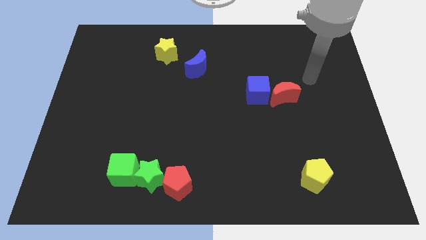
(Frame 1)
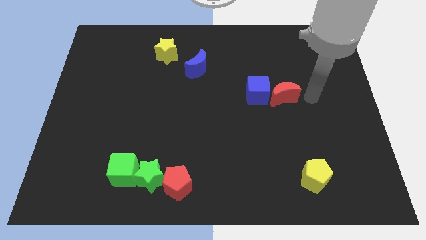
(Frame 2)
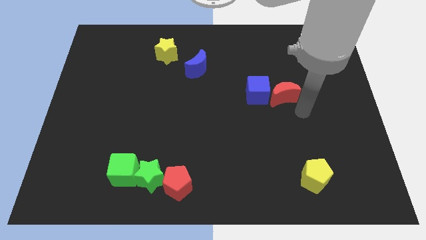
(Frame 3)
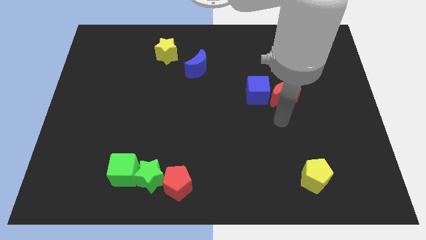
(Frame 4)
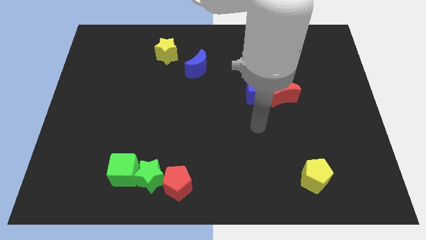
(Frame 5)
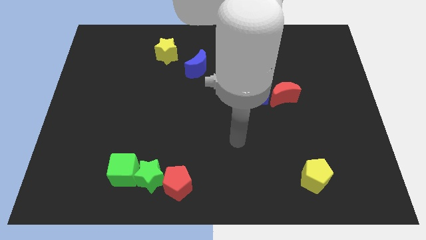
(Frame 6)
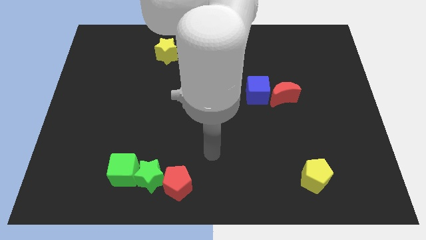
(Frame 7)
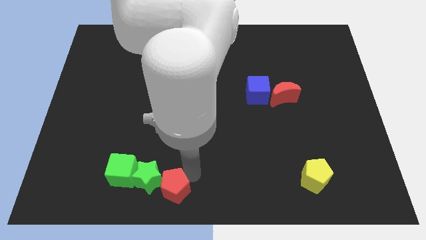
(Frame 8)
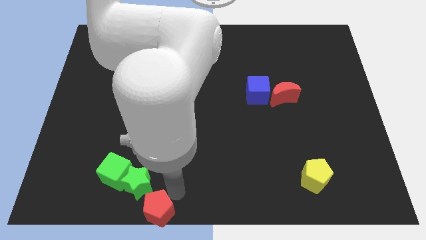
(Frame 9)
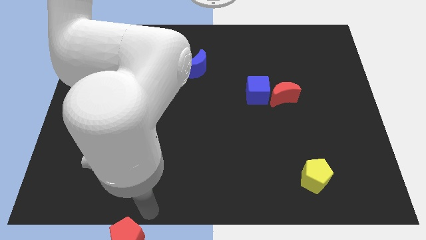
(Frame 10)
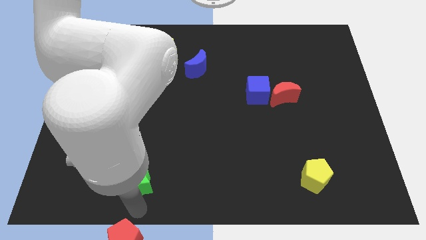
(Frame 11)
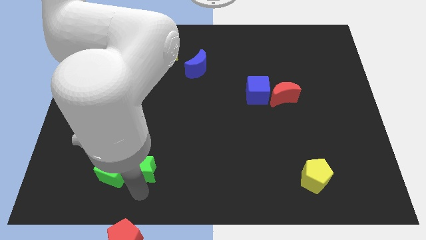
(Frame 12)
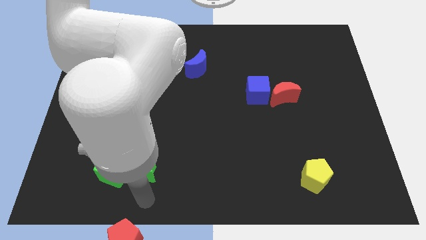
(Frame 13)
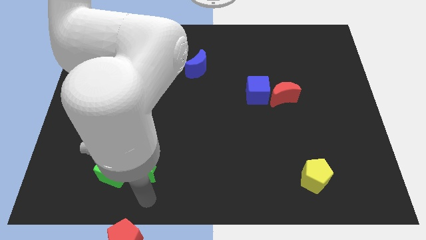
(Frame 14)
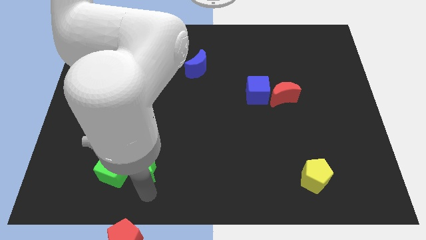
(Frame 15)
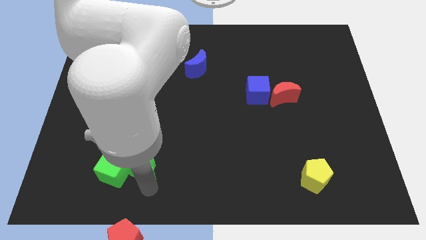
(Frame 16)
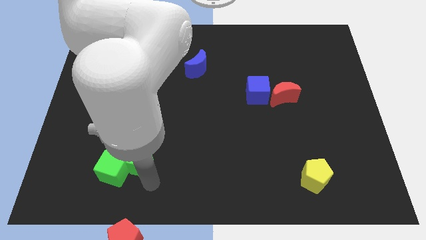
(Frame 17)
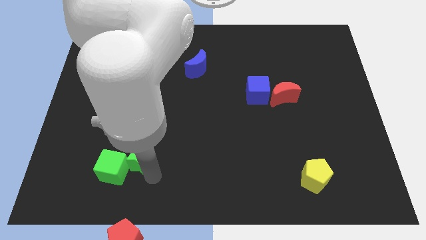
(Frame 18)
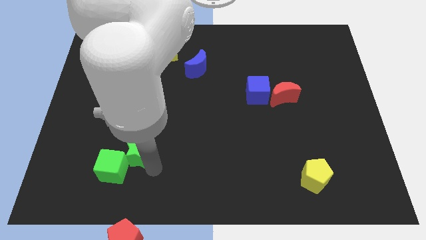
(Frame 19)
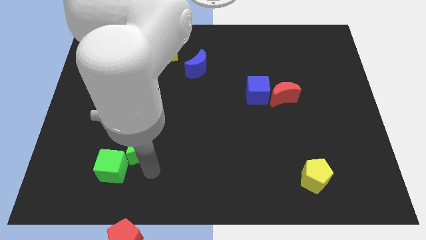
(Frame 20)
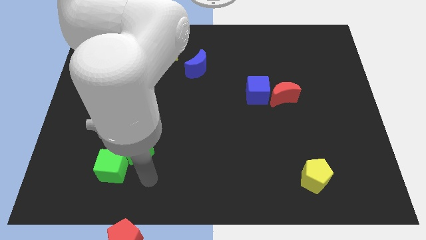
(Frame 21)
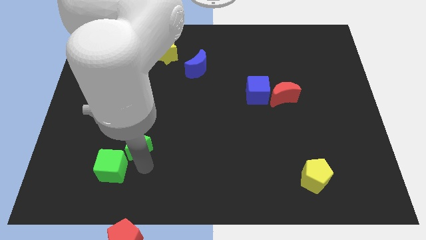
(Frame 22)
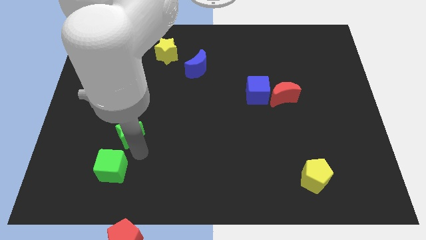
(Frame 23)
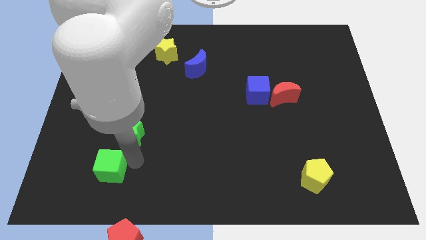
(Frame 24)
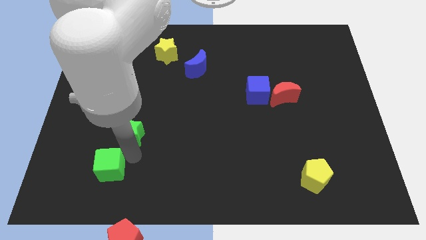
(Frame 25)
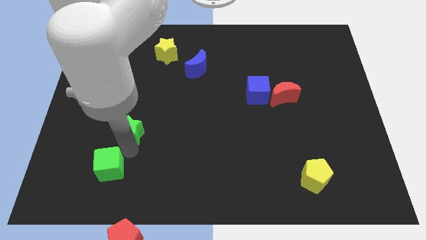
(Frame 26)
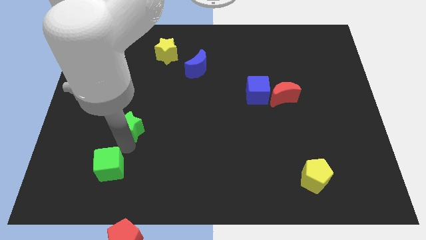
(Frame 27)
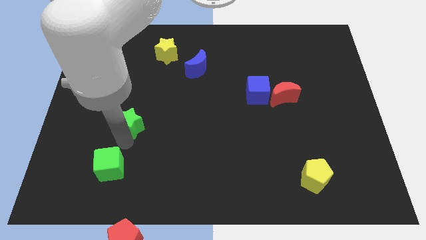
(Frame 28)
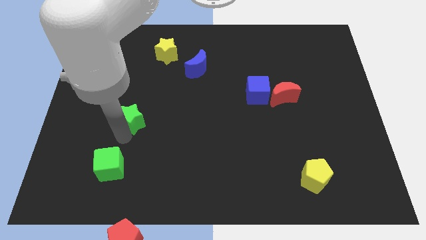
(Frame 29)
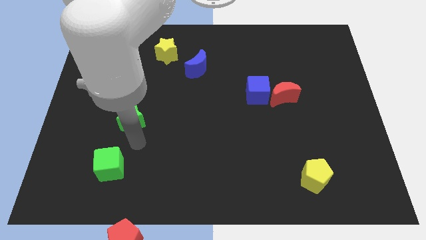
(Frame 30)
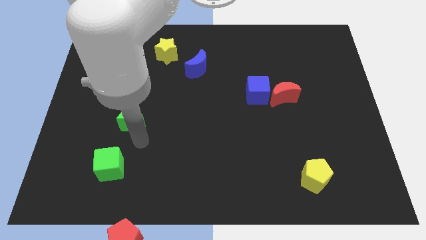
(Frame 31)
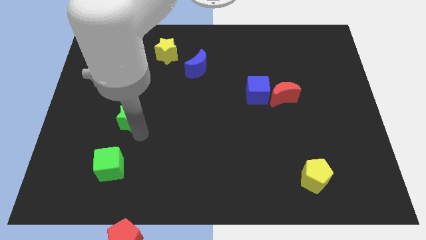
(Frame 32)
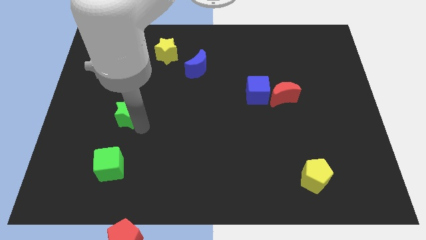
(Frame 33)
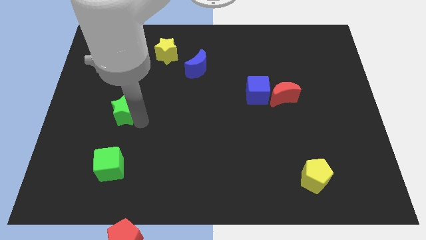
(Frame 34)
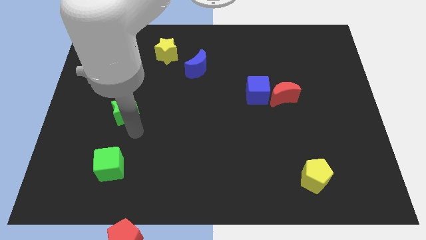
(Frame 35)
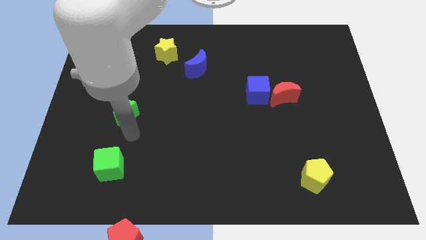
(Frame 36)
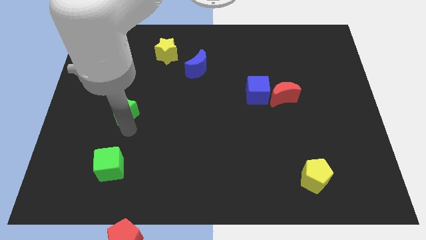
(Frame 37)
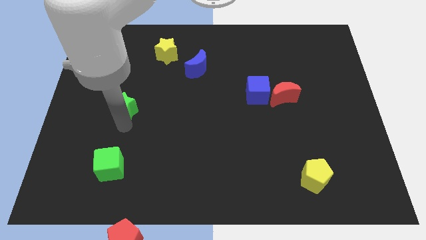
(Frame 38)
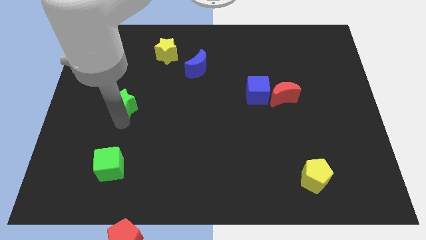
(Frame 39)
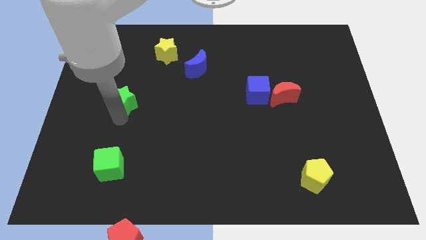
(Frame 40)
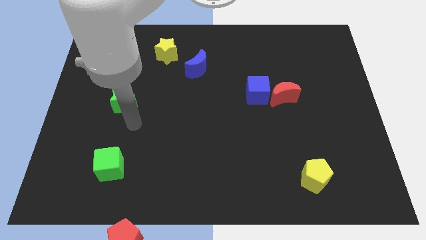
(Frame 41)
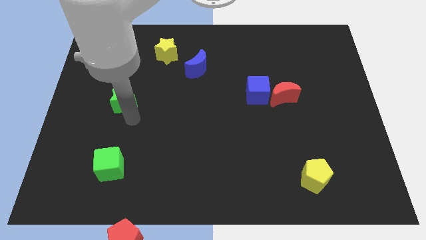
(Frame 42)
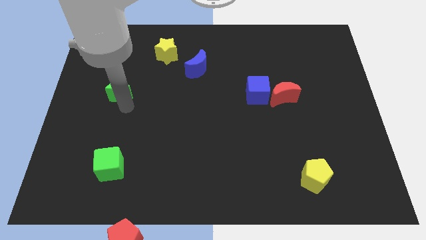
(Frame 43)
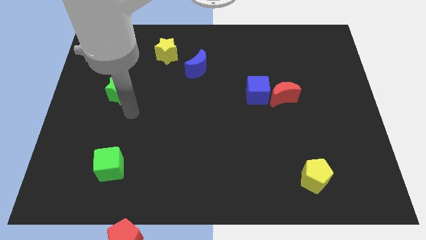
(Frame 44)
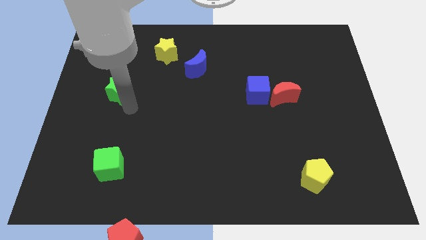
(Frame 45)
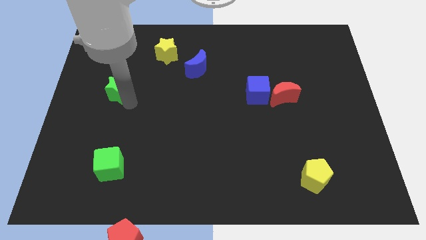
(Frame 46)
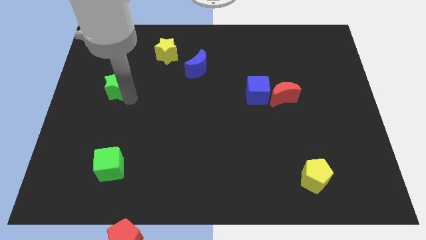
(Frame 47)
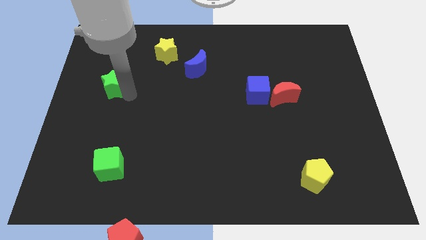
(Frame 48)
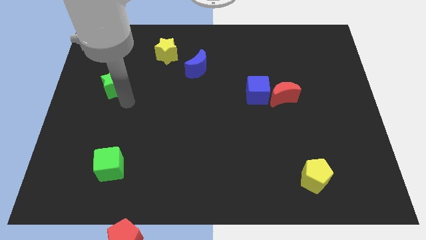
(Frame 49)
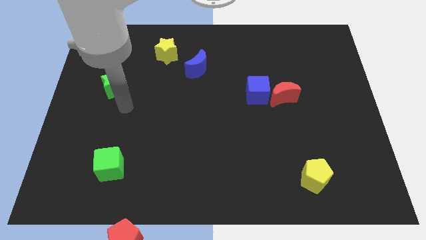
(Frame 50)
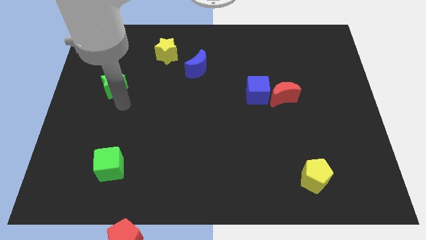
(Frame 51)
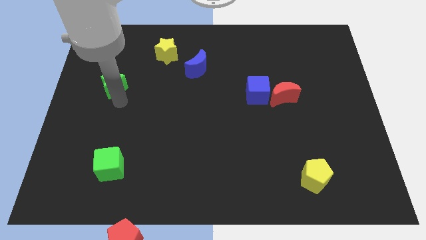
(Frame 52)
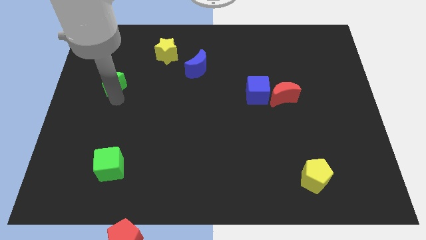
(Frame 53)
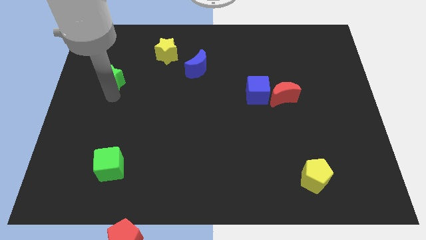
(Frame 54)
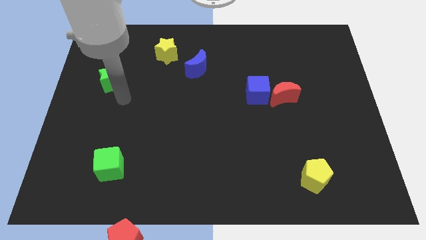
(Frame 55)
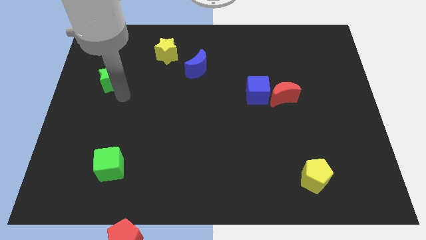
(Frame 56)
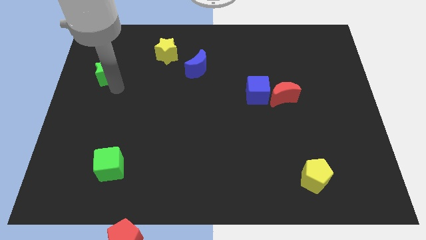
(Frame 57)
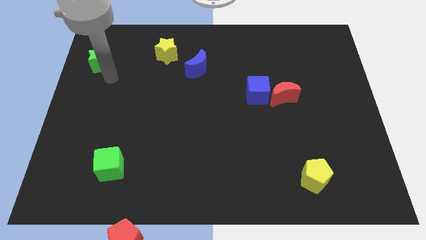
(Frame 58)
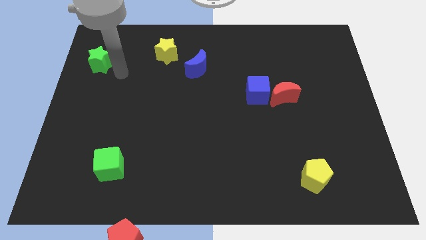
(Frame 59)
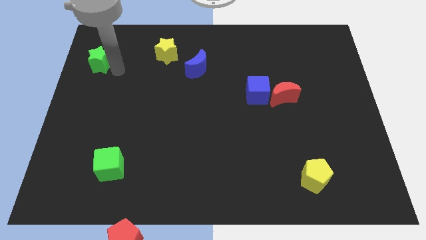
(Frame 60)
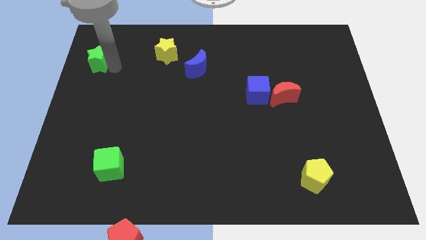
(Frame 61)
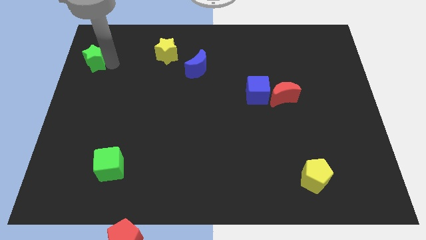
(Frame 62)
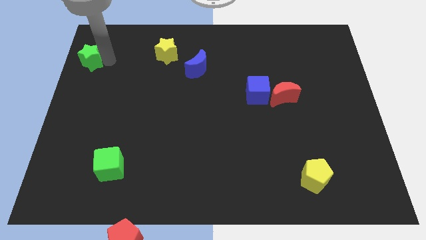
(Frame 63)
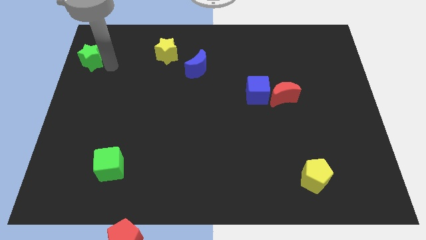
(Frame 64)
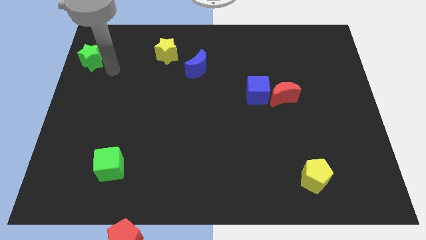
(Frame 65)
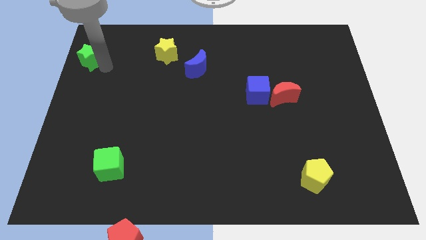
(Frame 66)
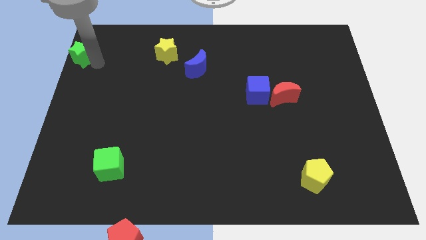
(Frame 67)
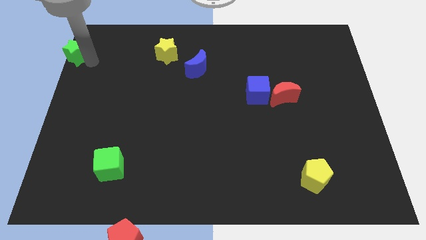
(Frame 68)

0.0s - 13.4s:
push the green star to the top left
